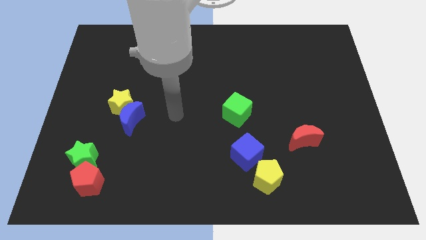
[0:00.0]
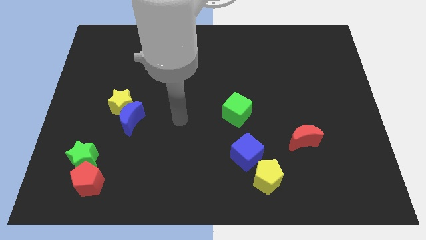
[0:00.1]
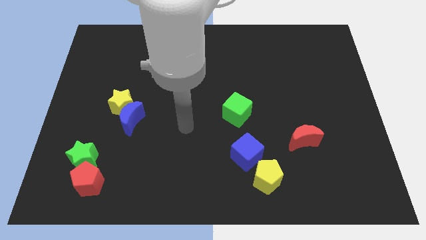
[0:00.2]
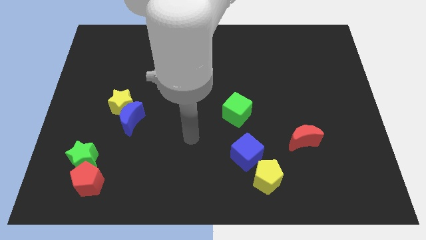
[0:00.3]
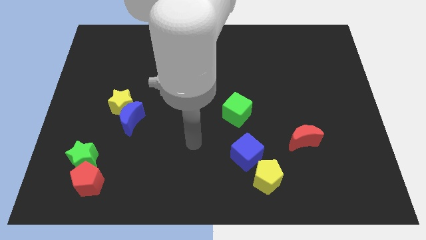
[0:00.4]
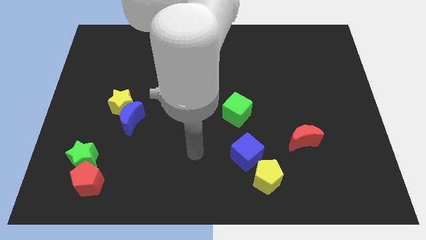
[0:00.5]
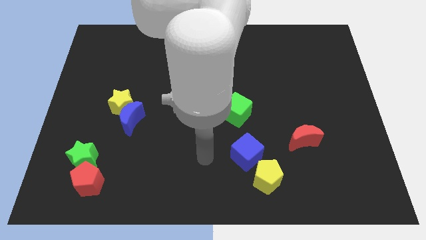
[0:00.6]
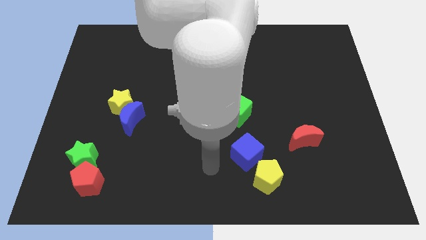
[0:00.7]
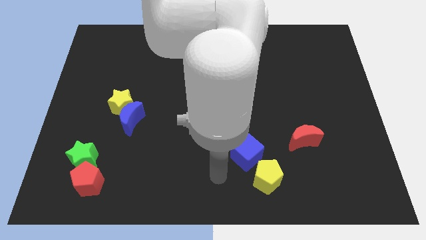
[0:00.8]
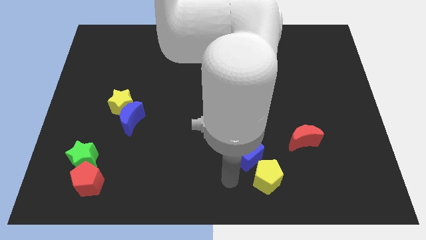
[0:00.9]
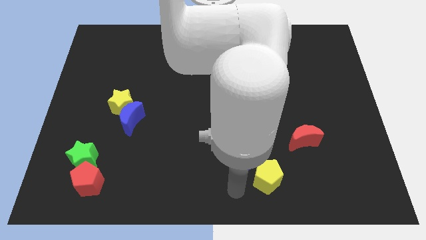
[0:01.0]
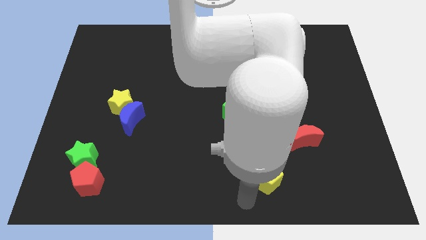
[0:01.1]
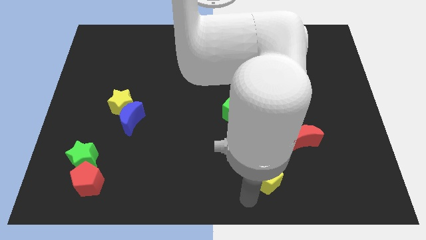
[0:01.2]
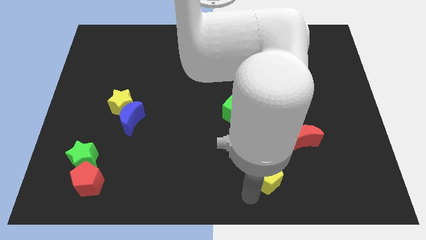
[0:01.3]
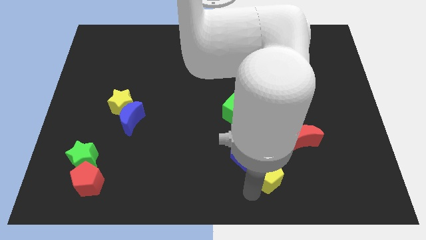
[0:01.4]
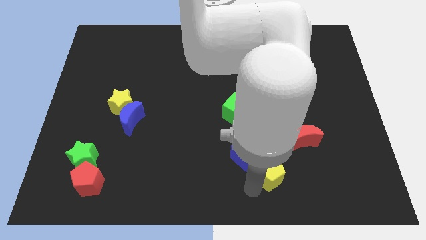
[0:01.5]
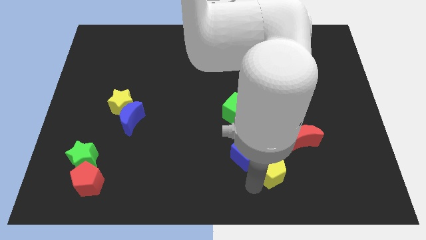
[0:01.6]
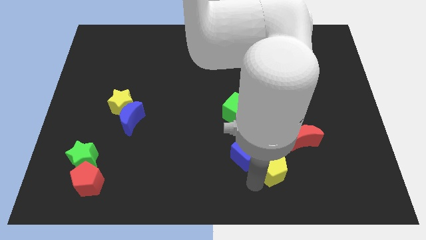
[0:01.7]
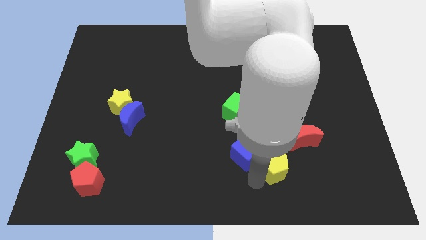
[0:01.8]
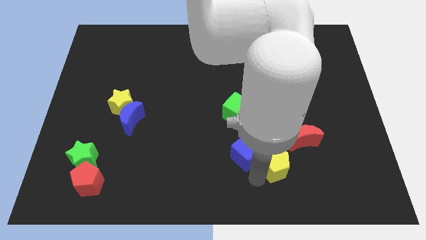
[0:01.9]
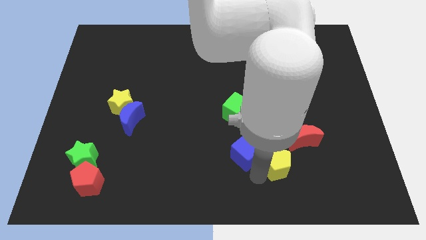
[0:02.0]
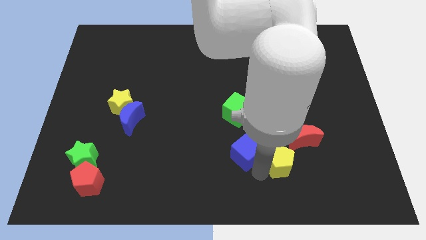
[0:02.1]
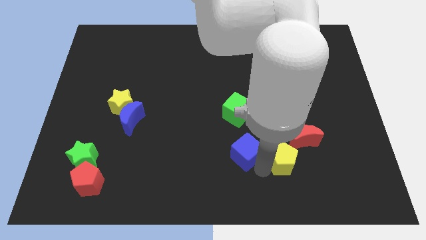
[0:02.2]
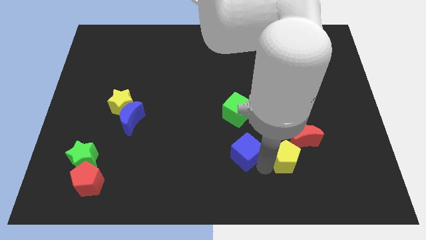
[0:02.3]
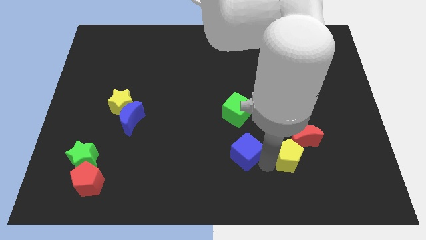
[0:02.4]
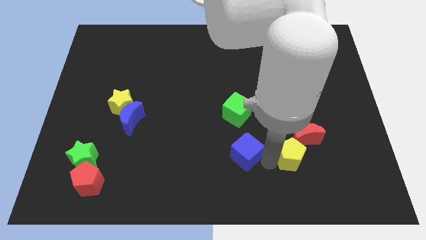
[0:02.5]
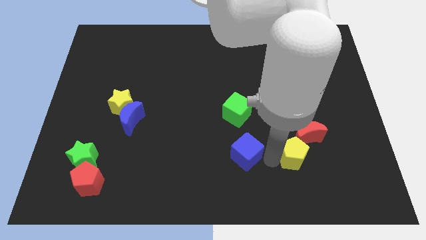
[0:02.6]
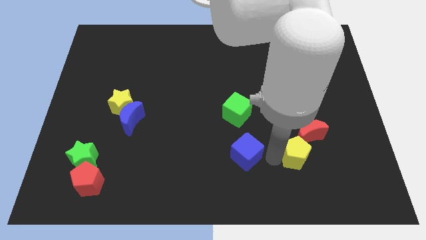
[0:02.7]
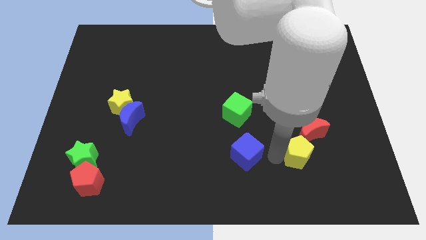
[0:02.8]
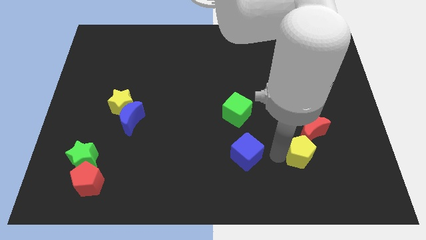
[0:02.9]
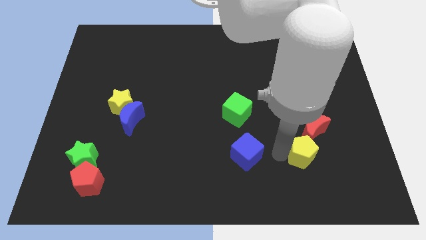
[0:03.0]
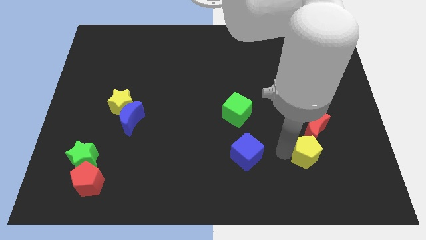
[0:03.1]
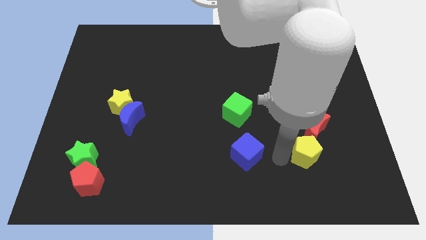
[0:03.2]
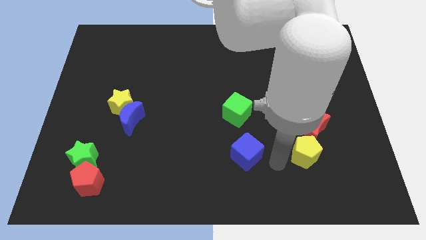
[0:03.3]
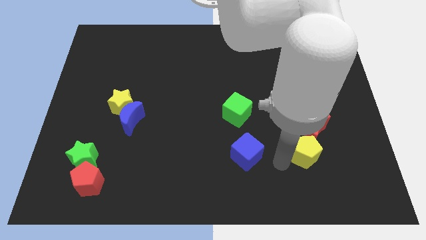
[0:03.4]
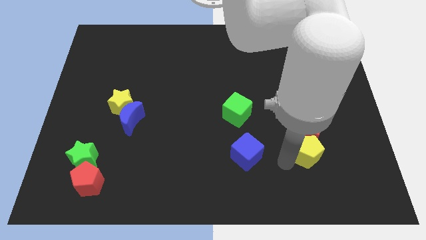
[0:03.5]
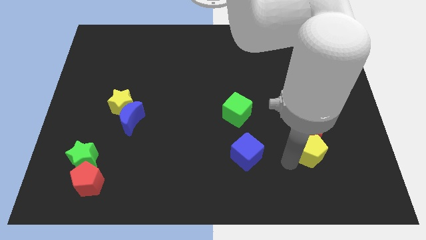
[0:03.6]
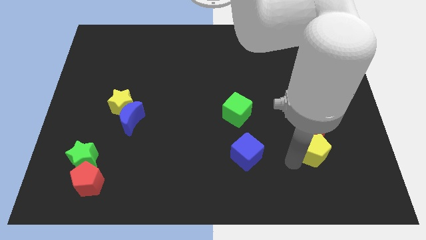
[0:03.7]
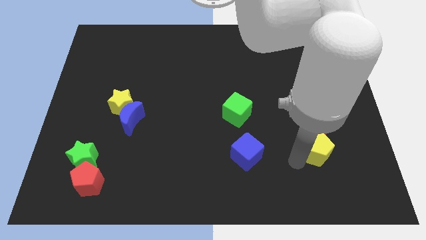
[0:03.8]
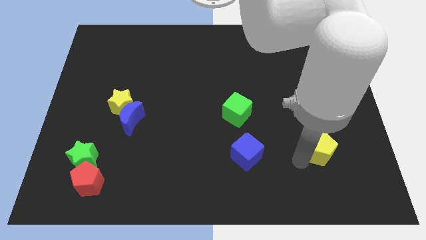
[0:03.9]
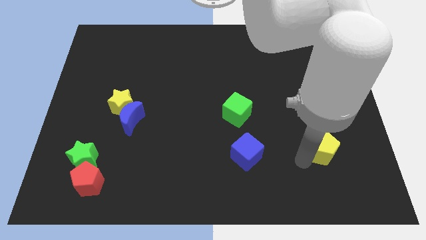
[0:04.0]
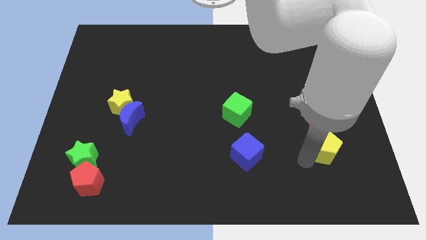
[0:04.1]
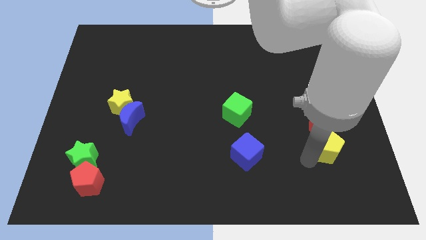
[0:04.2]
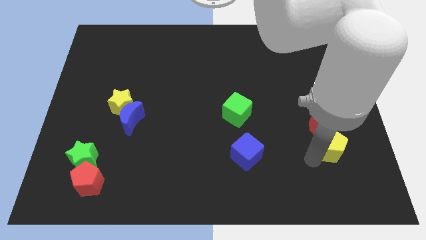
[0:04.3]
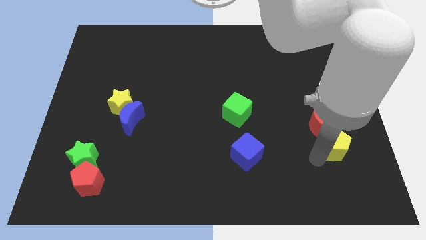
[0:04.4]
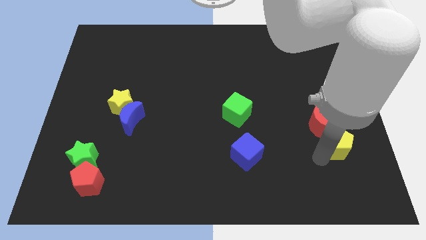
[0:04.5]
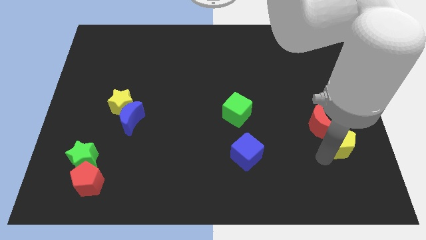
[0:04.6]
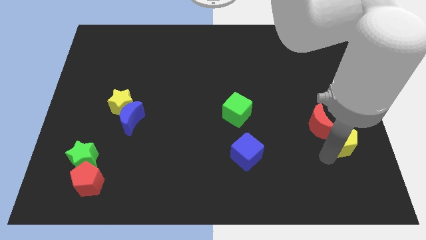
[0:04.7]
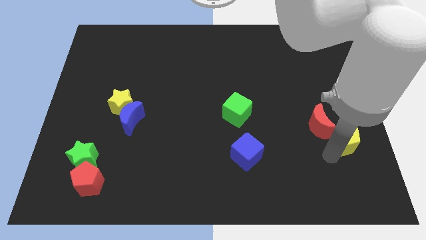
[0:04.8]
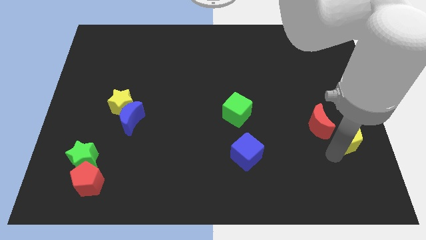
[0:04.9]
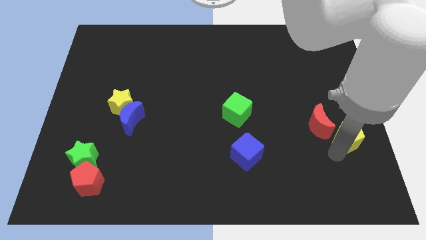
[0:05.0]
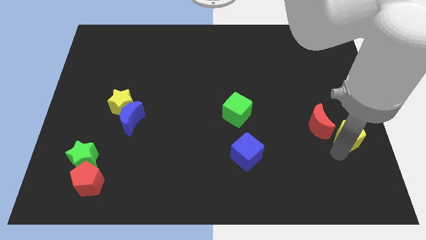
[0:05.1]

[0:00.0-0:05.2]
slide the yellow pentagon to the center right

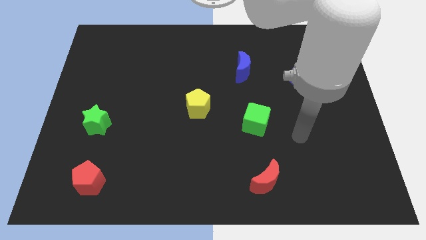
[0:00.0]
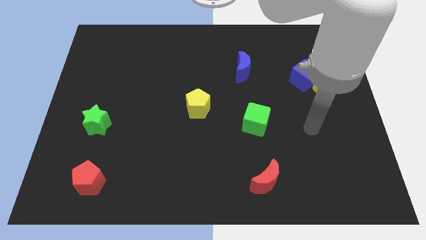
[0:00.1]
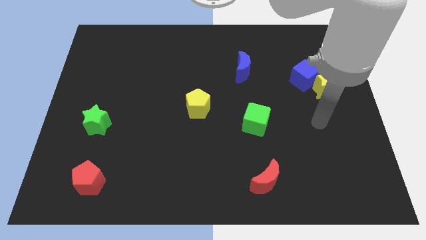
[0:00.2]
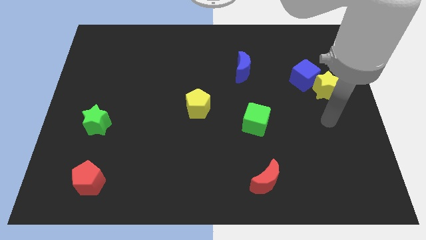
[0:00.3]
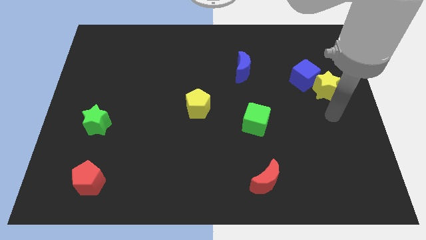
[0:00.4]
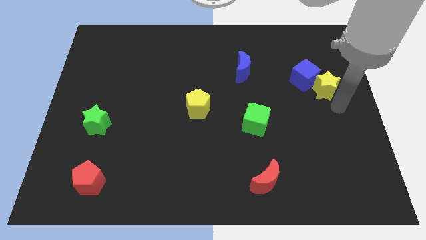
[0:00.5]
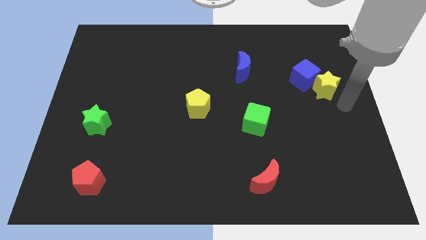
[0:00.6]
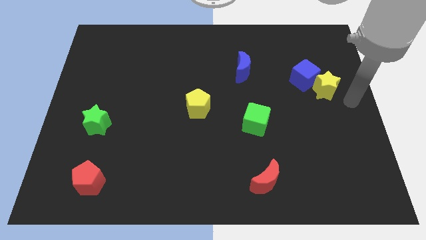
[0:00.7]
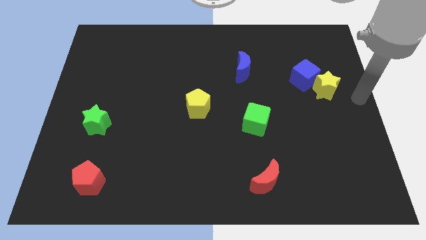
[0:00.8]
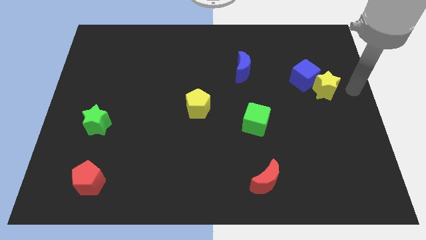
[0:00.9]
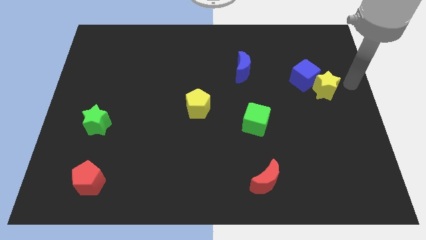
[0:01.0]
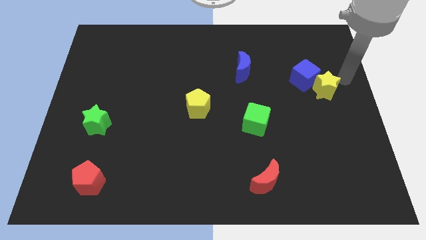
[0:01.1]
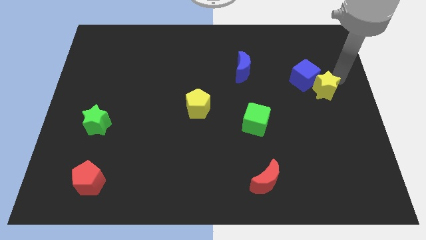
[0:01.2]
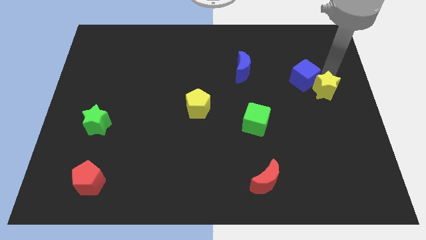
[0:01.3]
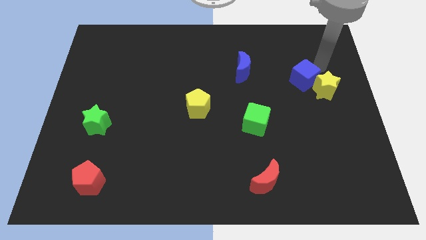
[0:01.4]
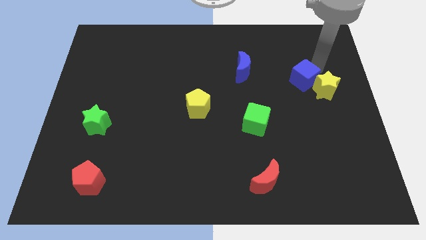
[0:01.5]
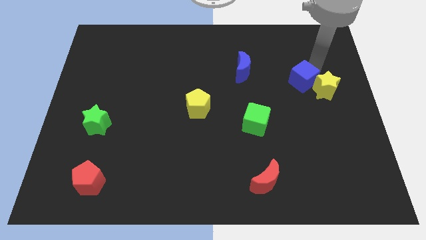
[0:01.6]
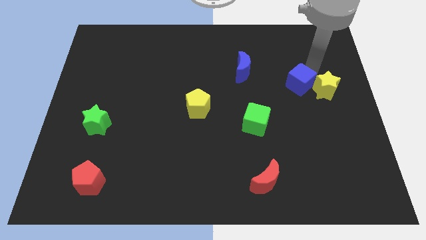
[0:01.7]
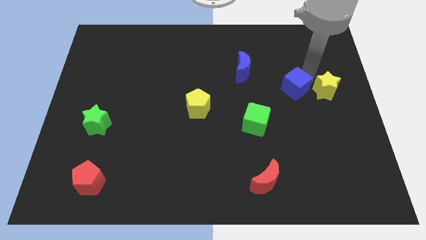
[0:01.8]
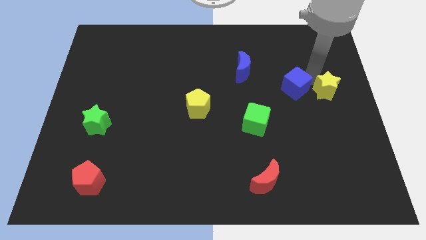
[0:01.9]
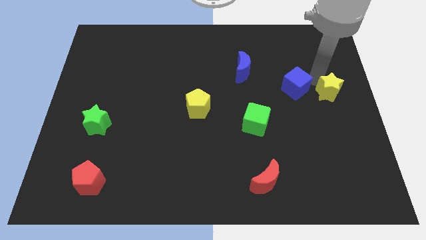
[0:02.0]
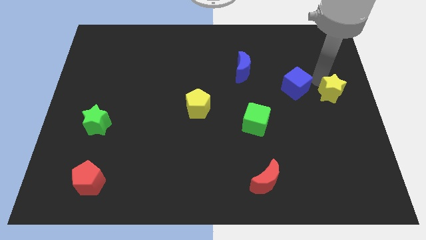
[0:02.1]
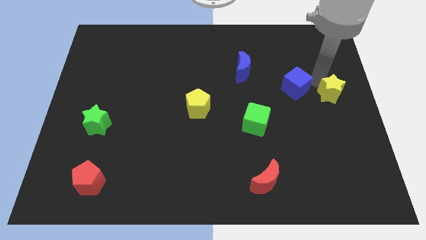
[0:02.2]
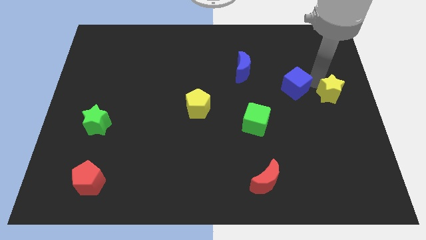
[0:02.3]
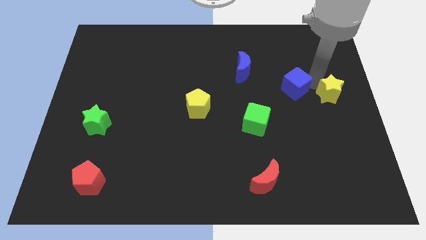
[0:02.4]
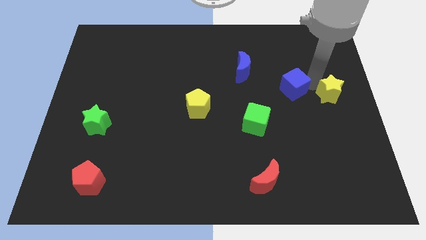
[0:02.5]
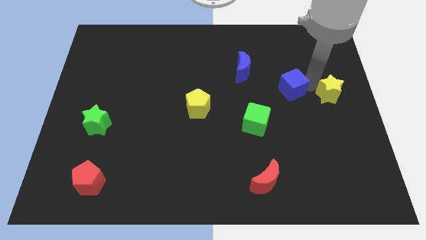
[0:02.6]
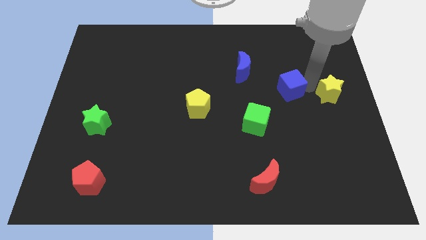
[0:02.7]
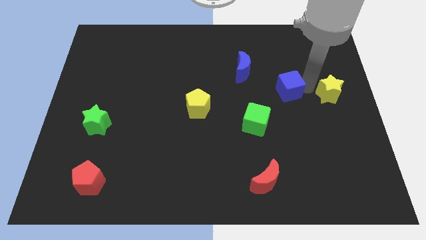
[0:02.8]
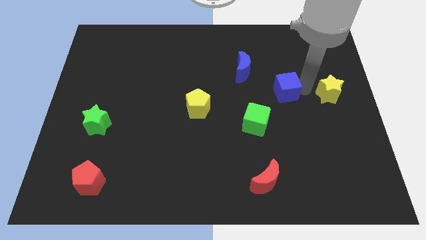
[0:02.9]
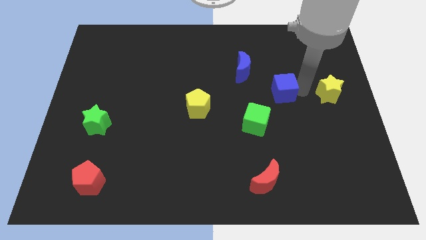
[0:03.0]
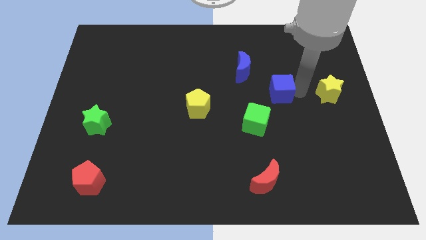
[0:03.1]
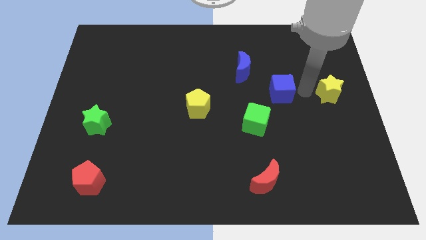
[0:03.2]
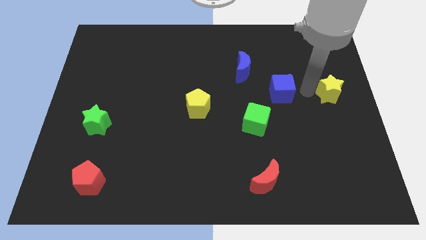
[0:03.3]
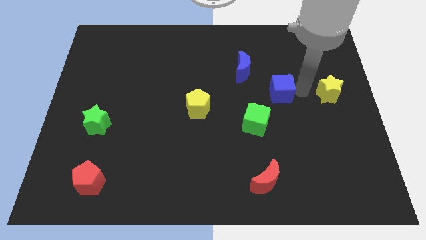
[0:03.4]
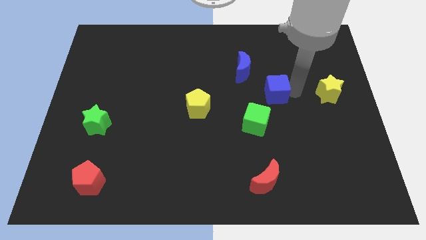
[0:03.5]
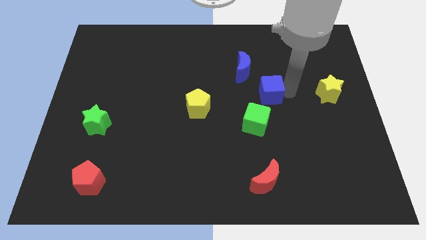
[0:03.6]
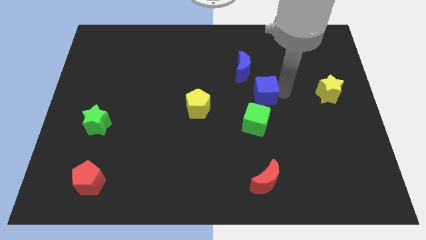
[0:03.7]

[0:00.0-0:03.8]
put the blue cube to the middle
